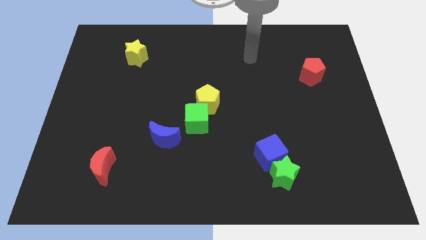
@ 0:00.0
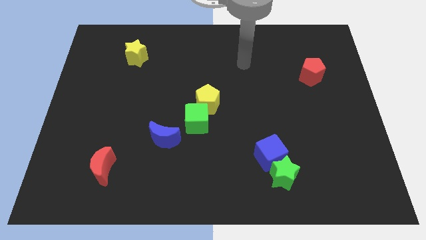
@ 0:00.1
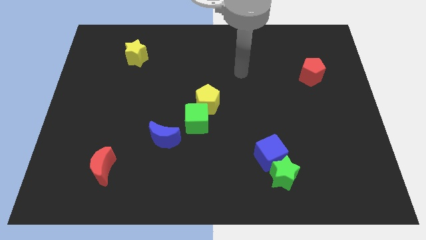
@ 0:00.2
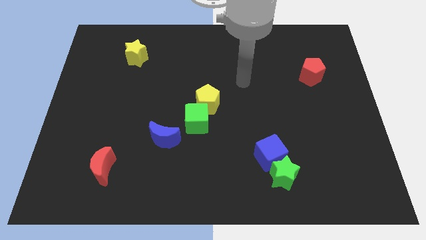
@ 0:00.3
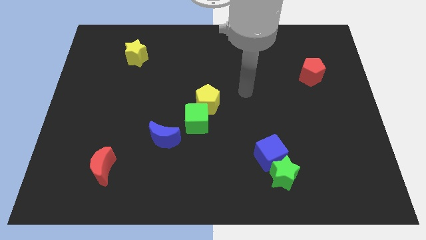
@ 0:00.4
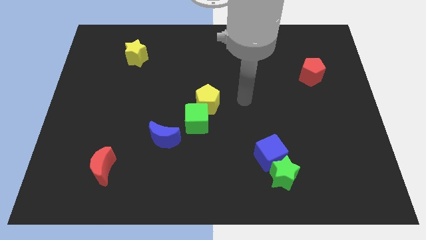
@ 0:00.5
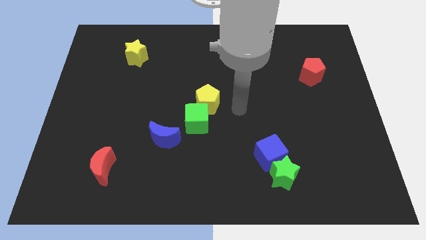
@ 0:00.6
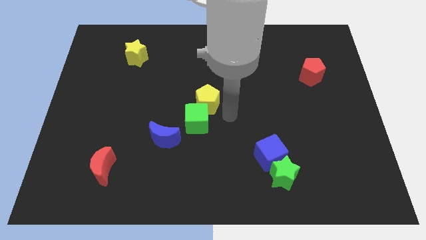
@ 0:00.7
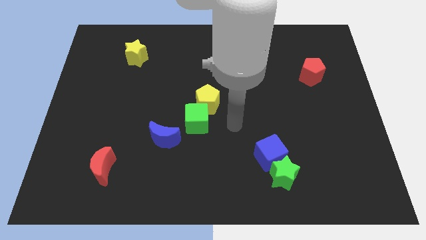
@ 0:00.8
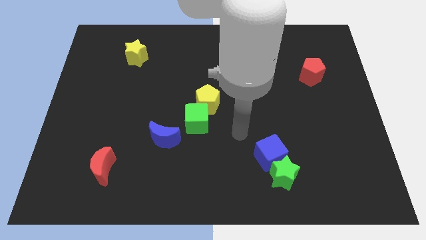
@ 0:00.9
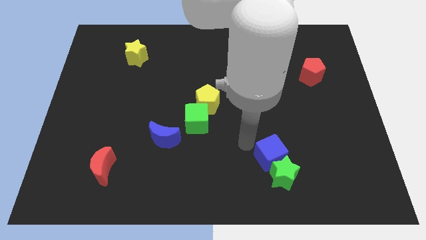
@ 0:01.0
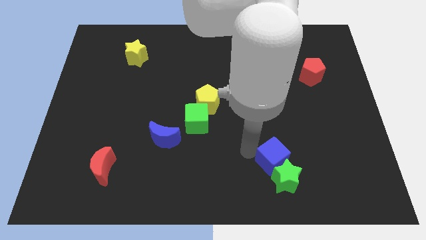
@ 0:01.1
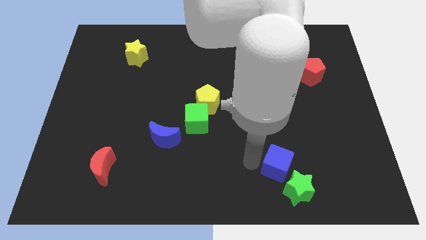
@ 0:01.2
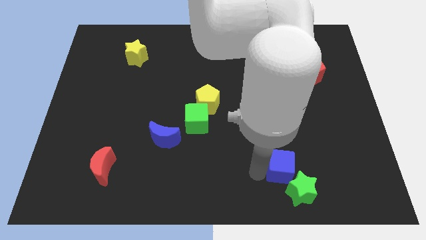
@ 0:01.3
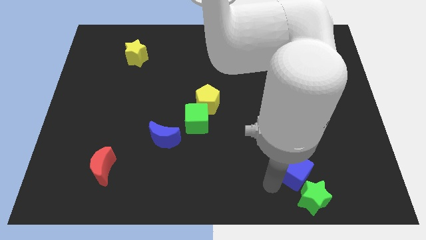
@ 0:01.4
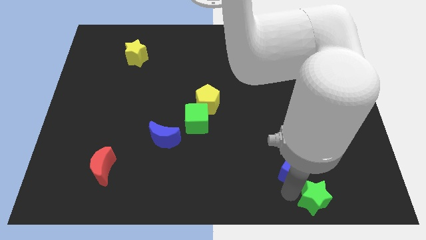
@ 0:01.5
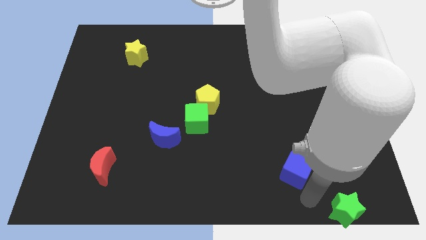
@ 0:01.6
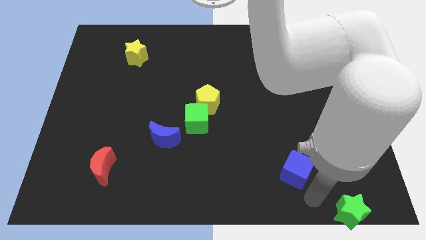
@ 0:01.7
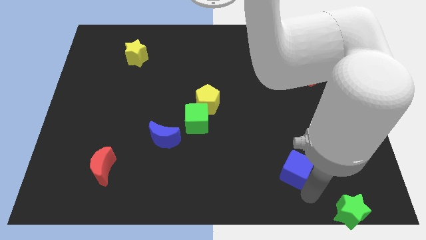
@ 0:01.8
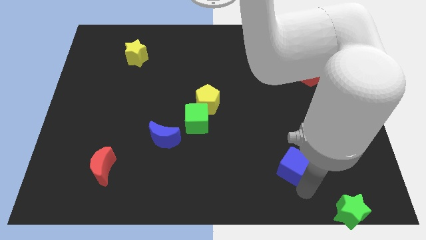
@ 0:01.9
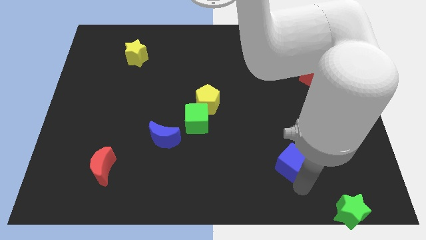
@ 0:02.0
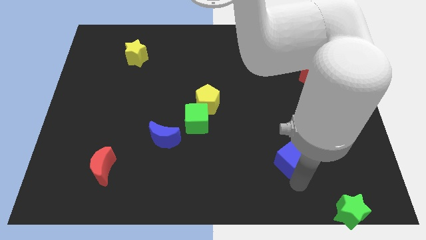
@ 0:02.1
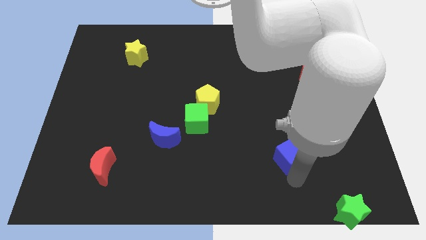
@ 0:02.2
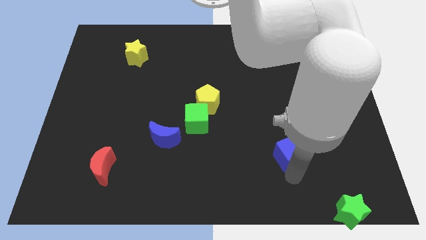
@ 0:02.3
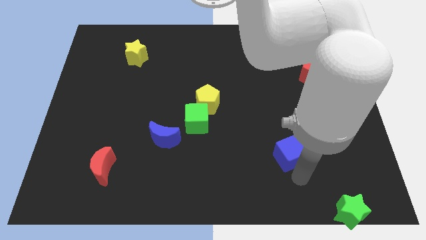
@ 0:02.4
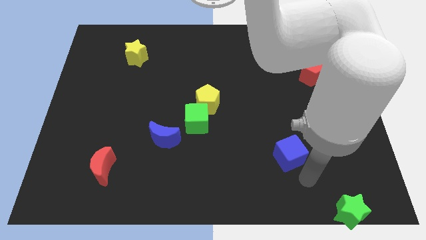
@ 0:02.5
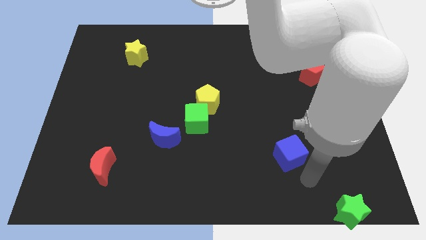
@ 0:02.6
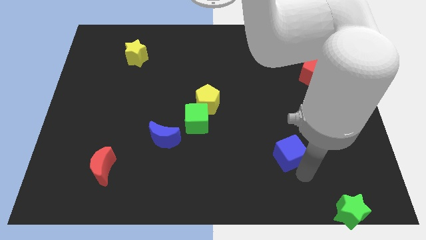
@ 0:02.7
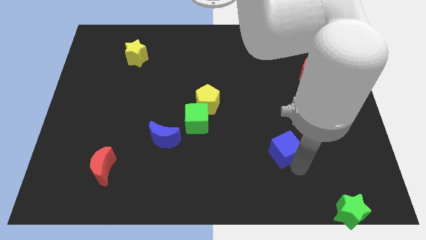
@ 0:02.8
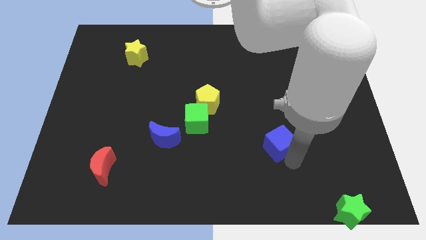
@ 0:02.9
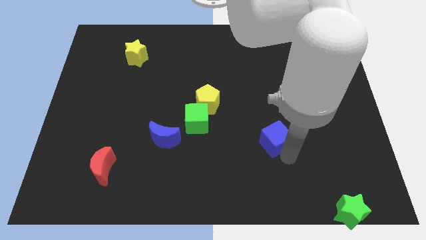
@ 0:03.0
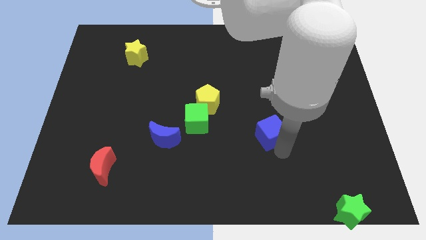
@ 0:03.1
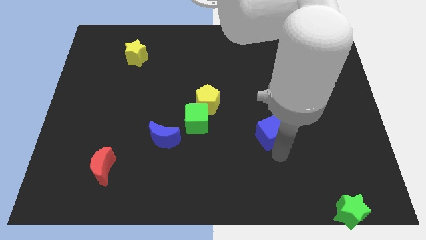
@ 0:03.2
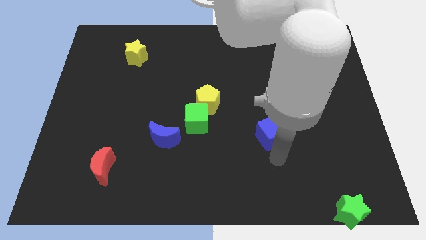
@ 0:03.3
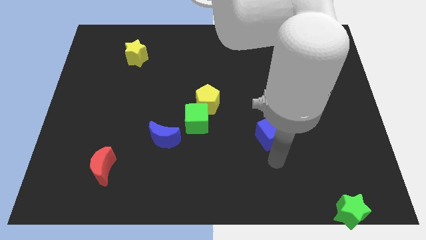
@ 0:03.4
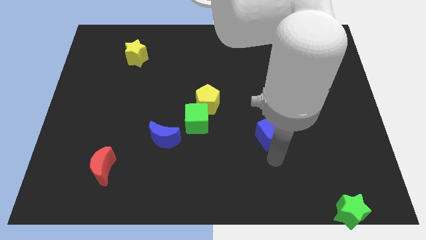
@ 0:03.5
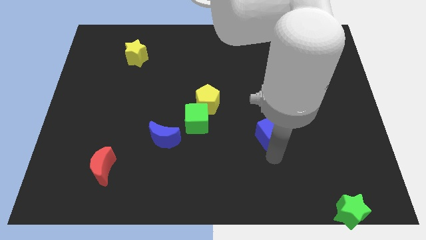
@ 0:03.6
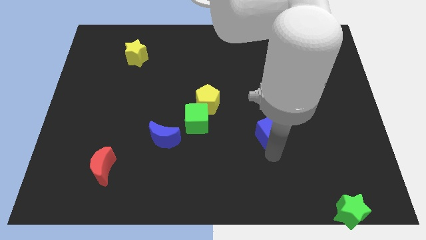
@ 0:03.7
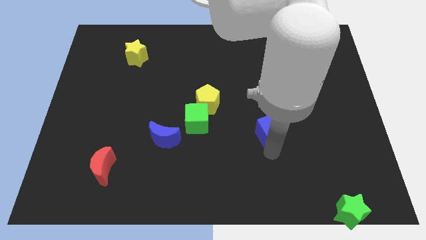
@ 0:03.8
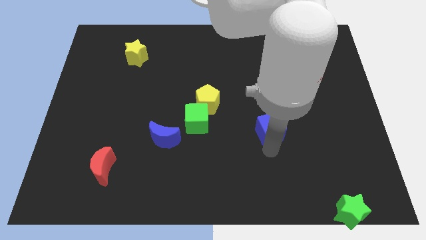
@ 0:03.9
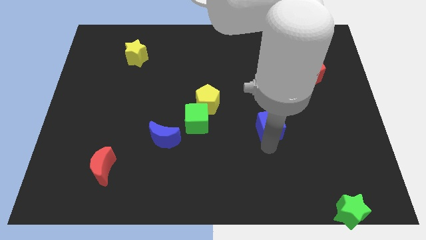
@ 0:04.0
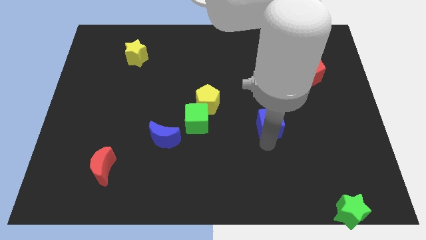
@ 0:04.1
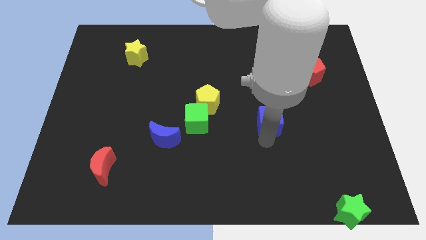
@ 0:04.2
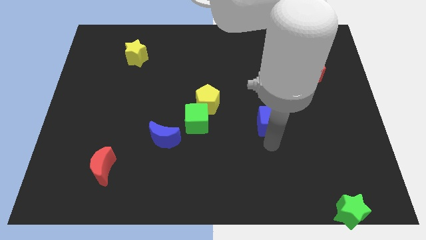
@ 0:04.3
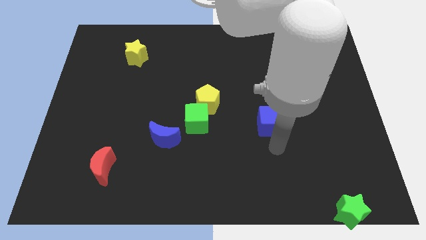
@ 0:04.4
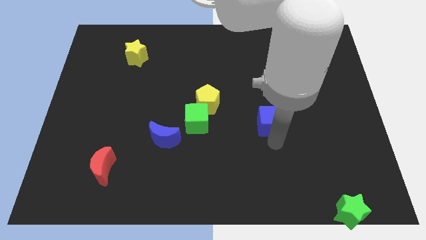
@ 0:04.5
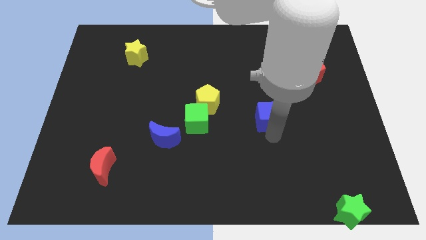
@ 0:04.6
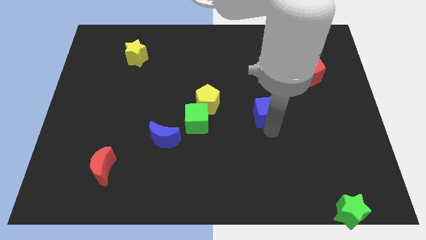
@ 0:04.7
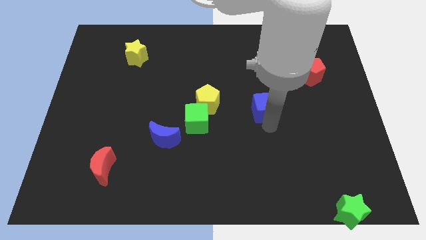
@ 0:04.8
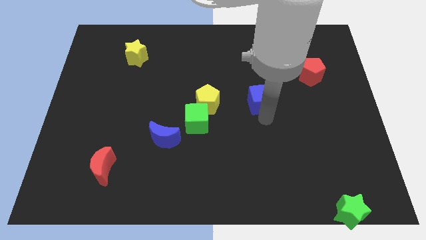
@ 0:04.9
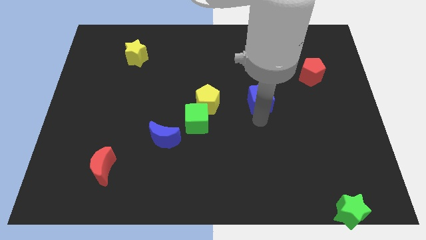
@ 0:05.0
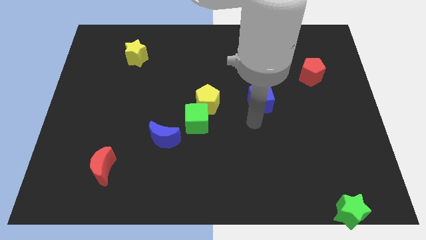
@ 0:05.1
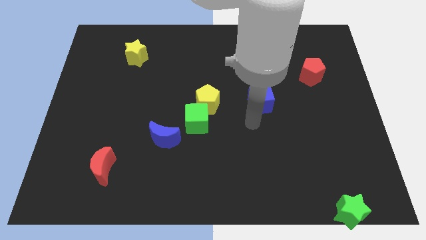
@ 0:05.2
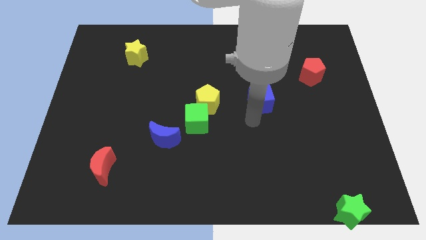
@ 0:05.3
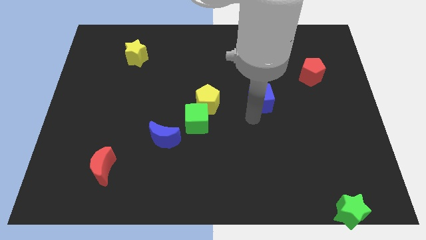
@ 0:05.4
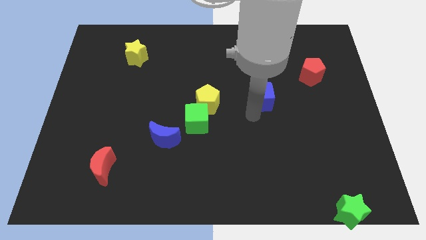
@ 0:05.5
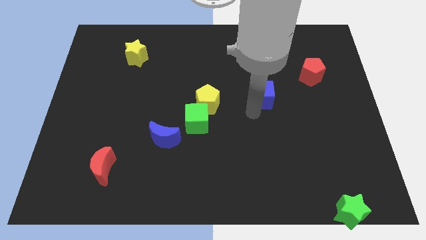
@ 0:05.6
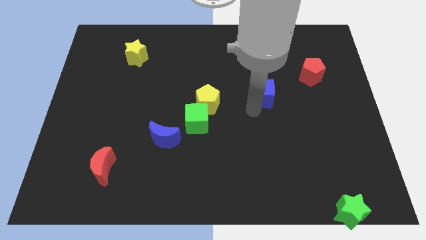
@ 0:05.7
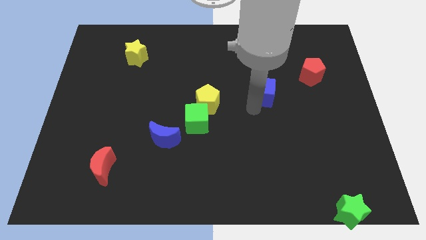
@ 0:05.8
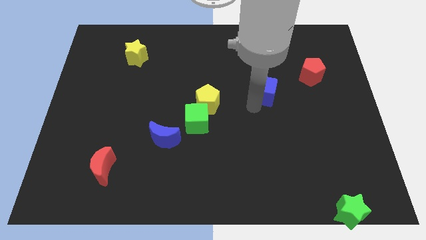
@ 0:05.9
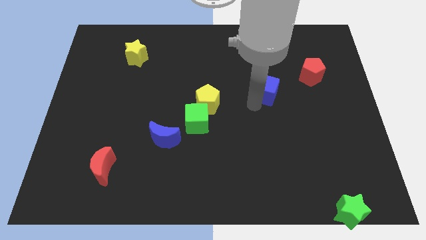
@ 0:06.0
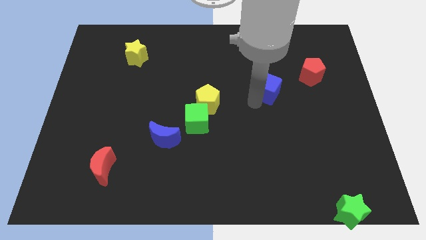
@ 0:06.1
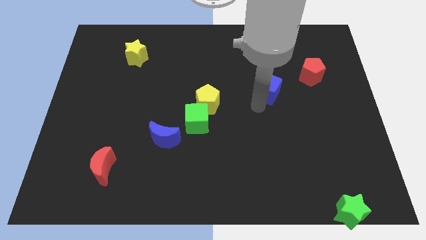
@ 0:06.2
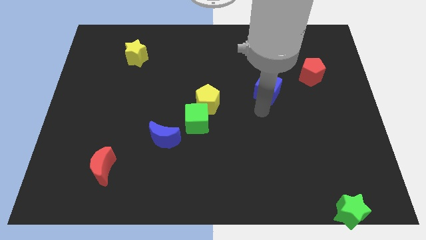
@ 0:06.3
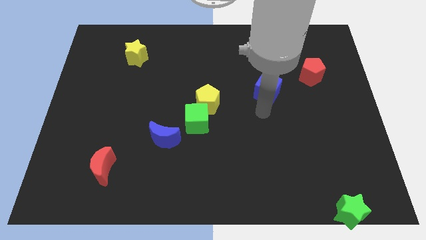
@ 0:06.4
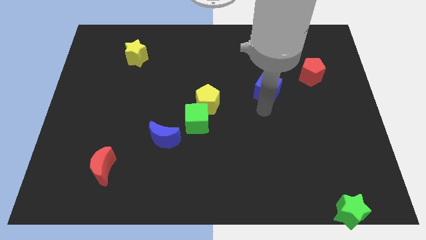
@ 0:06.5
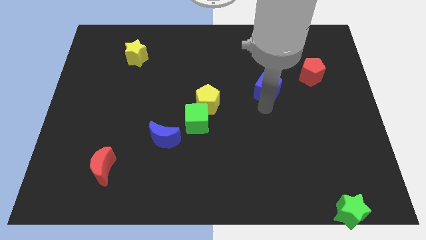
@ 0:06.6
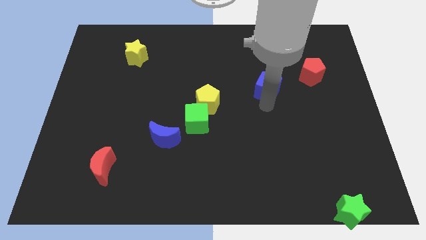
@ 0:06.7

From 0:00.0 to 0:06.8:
push the blue cube to the left of the red pentagon

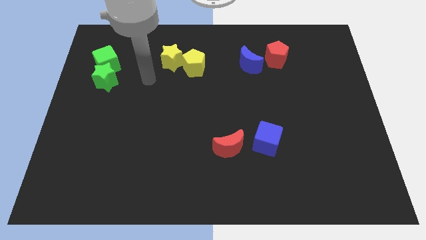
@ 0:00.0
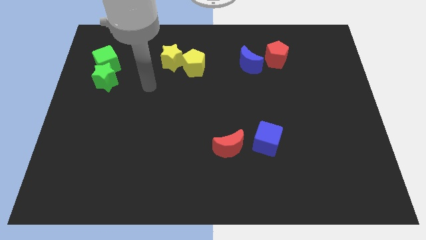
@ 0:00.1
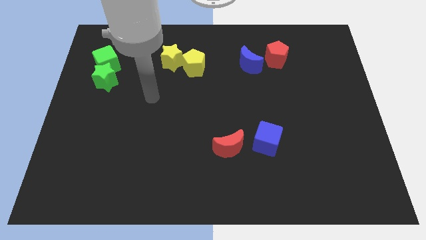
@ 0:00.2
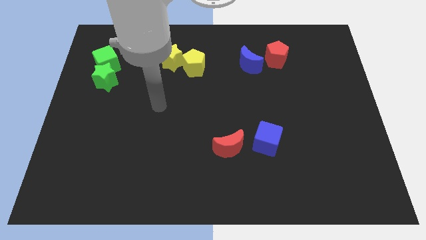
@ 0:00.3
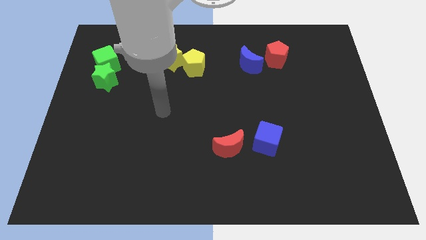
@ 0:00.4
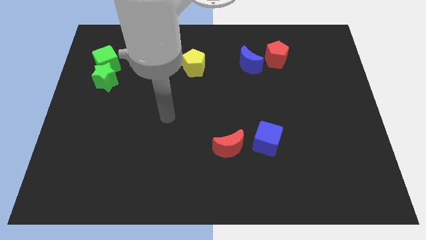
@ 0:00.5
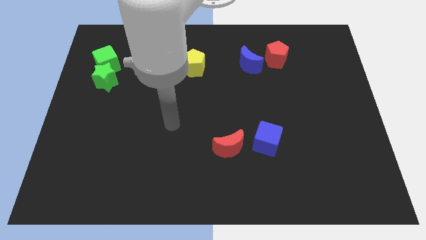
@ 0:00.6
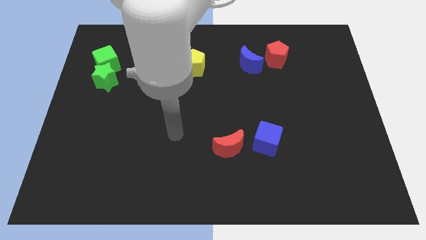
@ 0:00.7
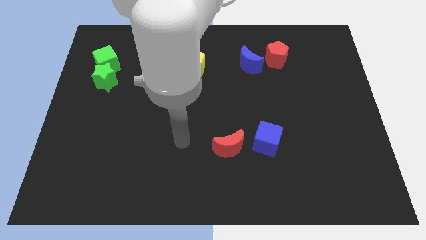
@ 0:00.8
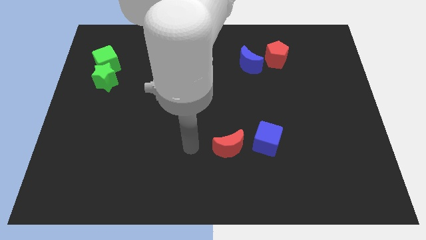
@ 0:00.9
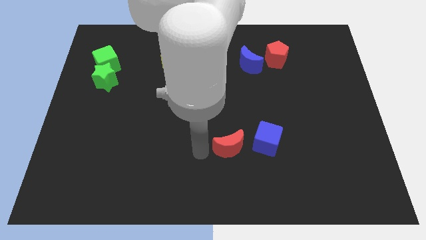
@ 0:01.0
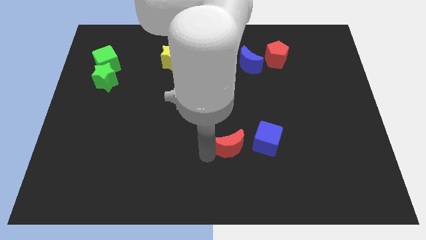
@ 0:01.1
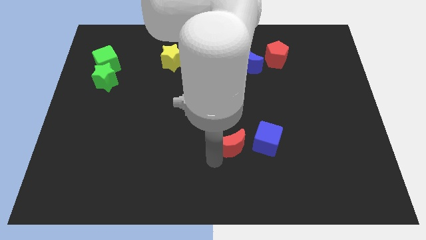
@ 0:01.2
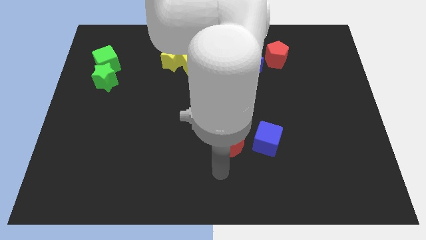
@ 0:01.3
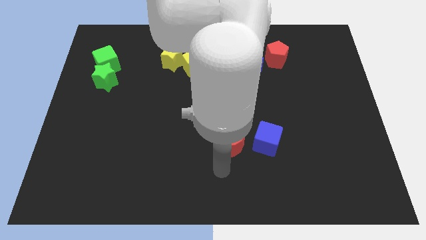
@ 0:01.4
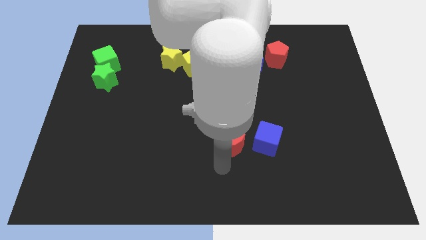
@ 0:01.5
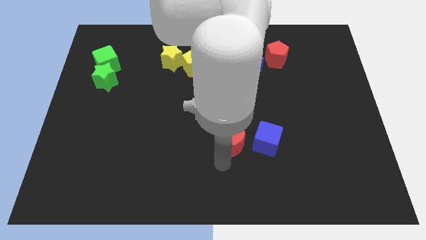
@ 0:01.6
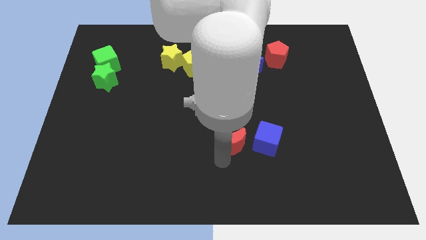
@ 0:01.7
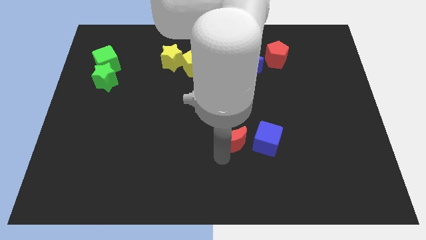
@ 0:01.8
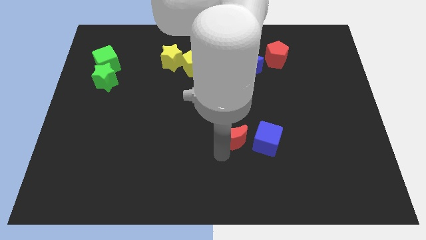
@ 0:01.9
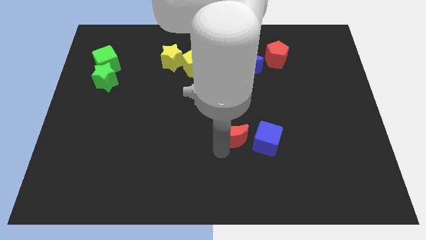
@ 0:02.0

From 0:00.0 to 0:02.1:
push the red moon diagonally up and to the left of the blue cube
